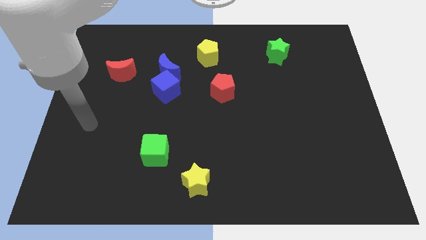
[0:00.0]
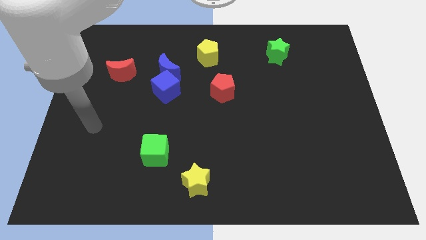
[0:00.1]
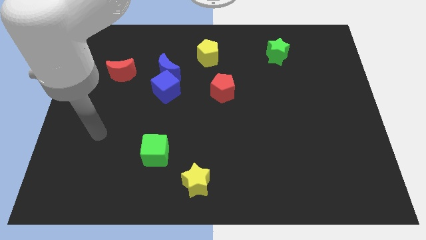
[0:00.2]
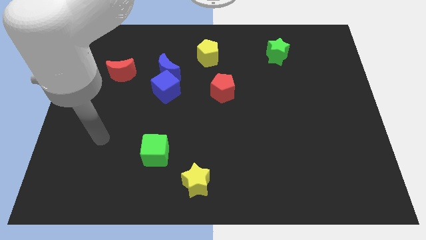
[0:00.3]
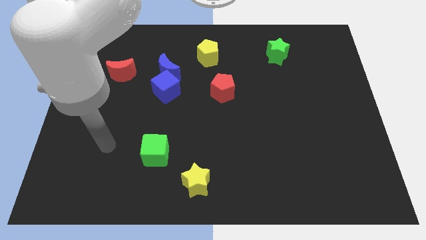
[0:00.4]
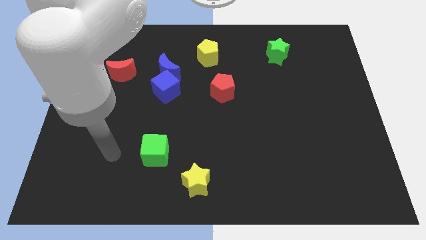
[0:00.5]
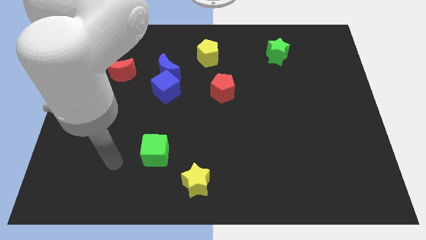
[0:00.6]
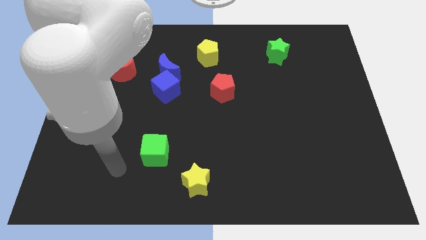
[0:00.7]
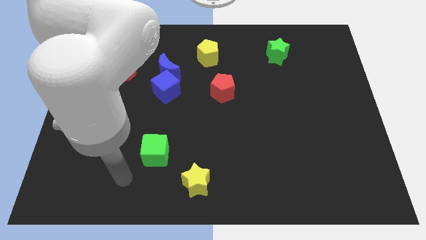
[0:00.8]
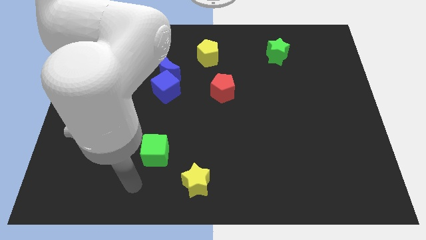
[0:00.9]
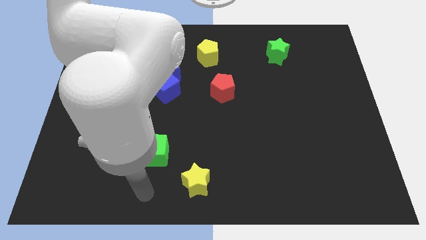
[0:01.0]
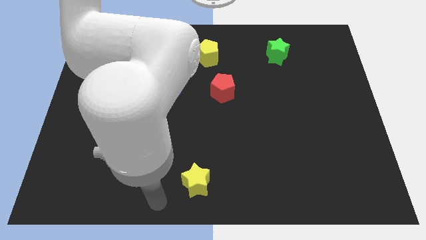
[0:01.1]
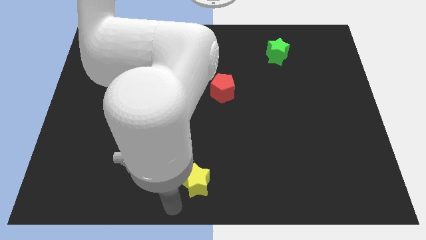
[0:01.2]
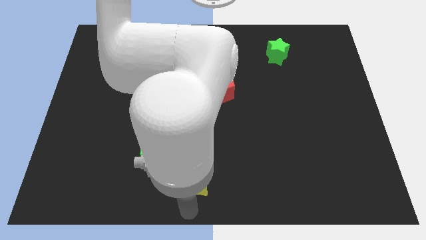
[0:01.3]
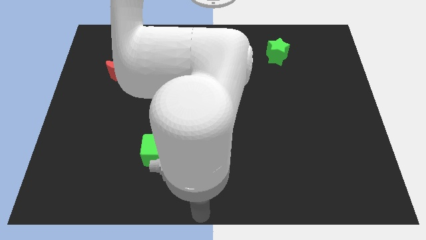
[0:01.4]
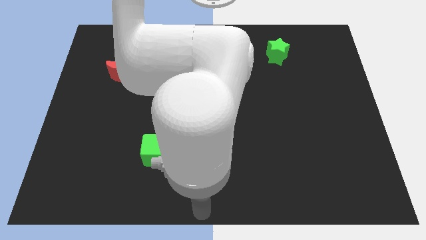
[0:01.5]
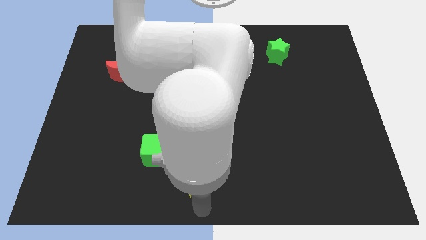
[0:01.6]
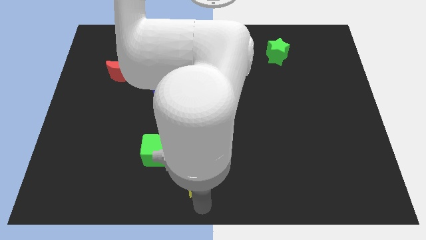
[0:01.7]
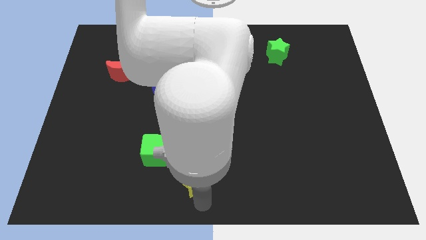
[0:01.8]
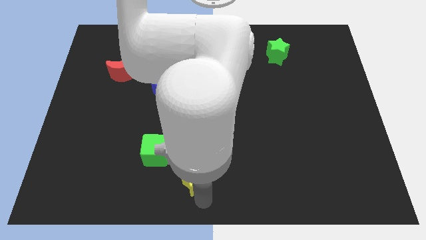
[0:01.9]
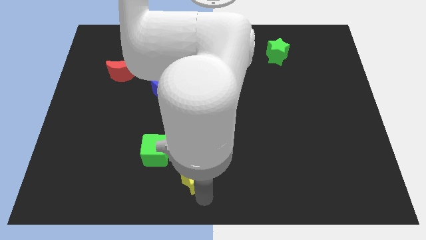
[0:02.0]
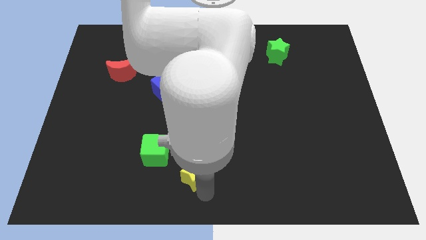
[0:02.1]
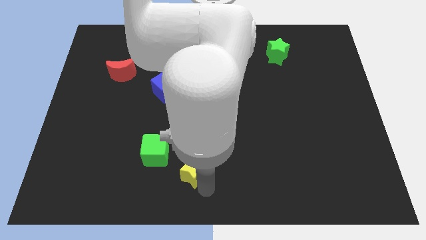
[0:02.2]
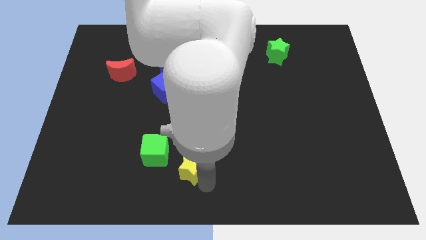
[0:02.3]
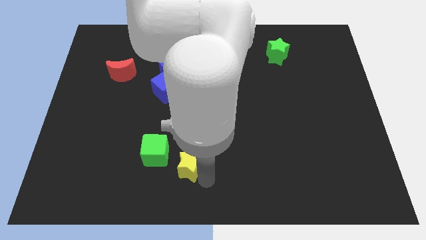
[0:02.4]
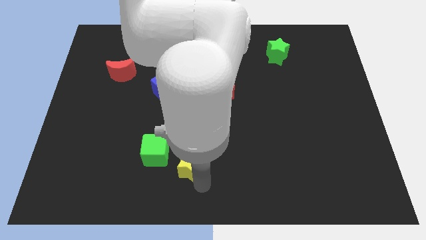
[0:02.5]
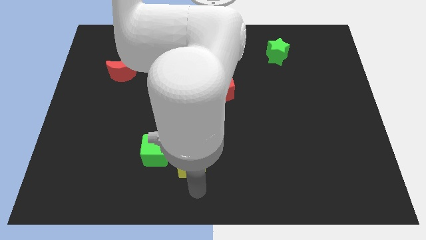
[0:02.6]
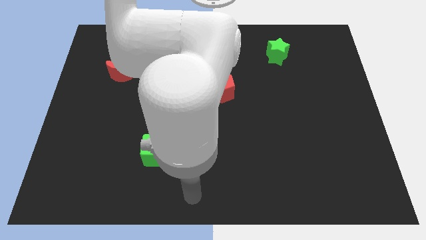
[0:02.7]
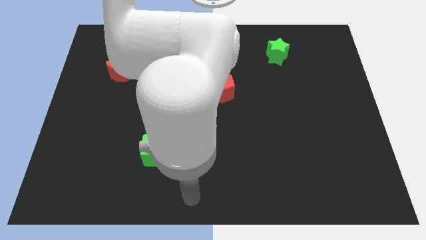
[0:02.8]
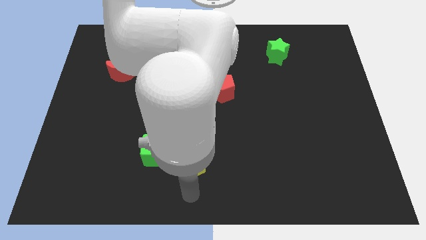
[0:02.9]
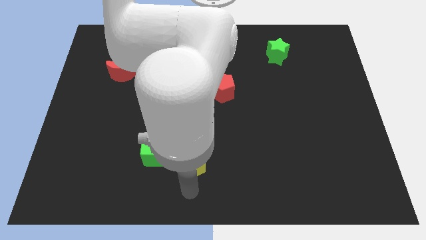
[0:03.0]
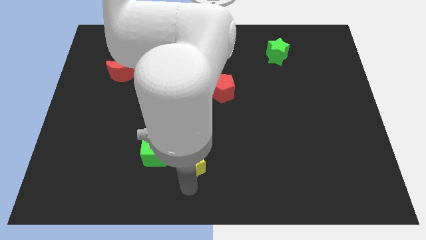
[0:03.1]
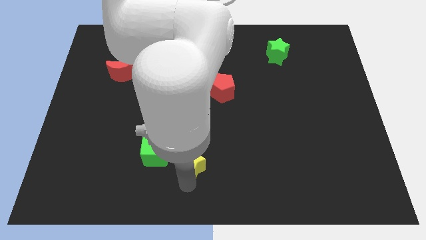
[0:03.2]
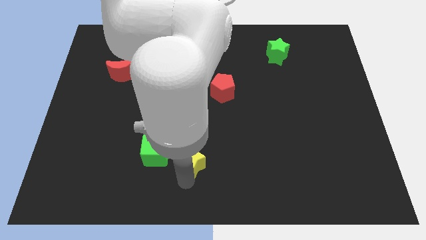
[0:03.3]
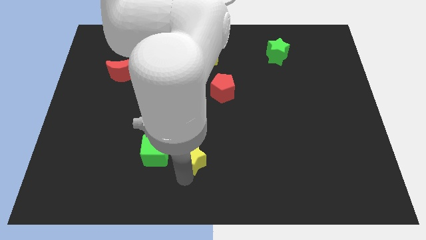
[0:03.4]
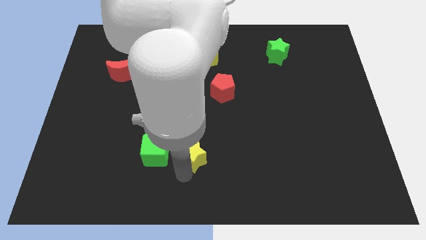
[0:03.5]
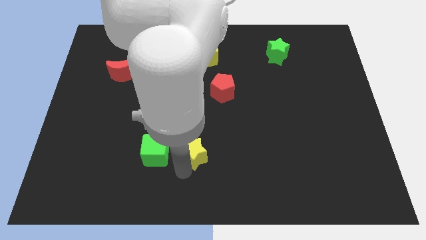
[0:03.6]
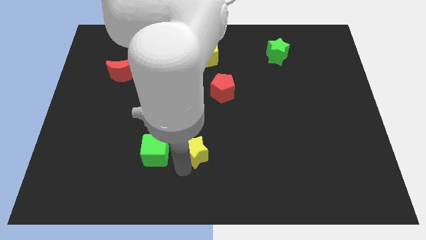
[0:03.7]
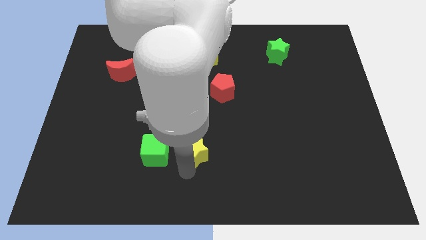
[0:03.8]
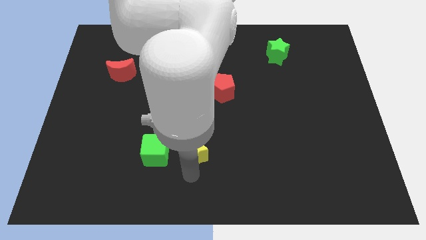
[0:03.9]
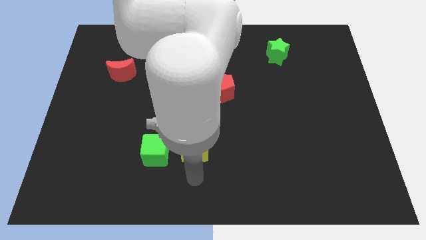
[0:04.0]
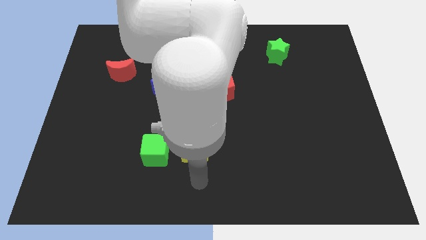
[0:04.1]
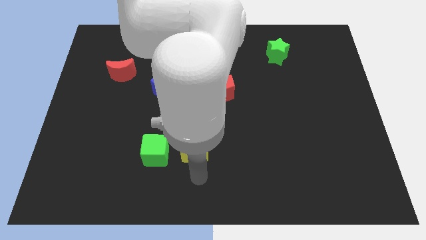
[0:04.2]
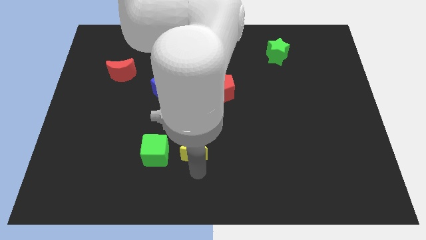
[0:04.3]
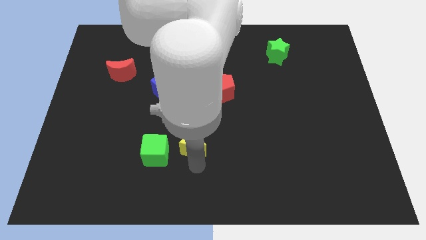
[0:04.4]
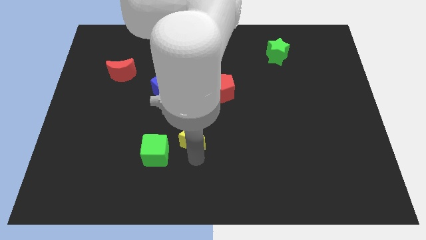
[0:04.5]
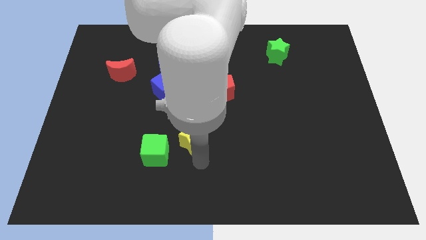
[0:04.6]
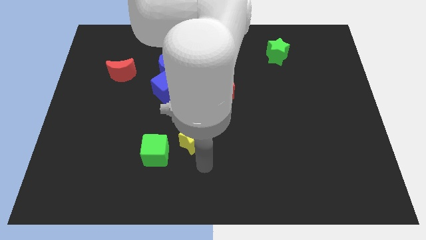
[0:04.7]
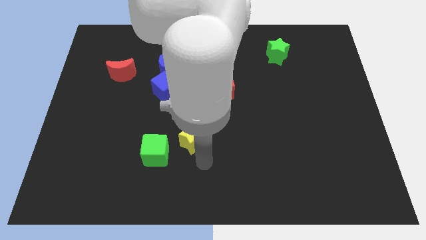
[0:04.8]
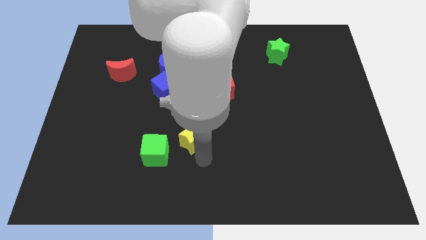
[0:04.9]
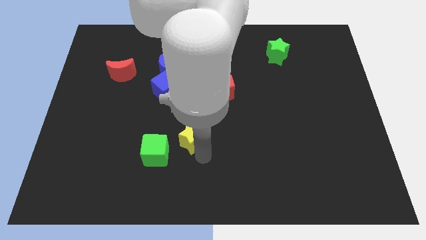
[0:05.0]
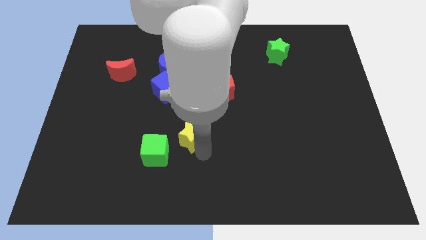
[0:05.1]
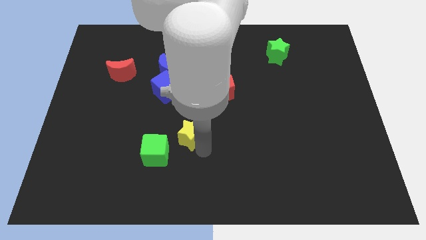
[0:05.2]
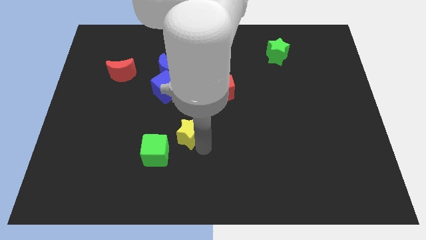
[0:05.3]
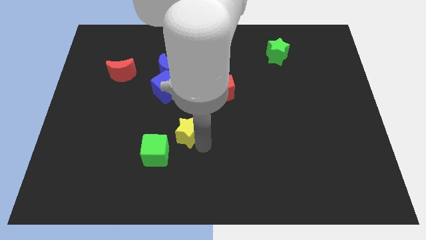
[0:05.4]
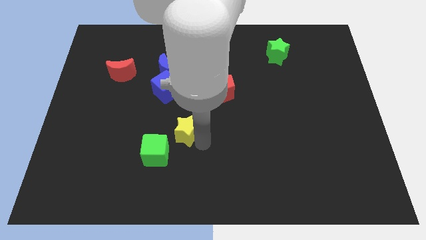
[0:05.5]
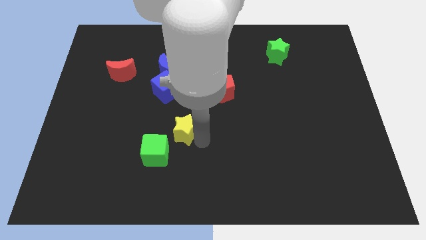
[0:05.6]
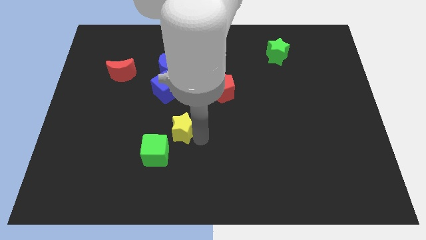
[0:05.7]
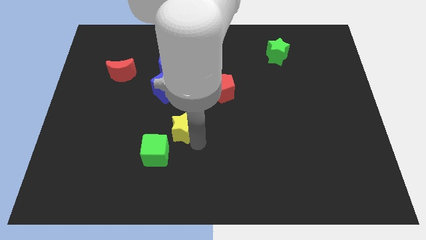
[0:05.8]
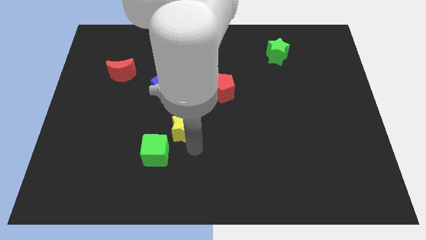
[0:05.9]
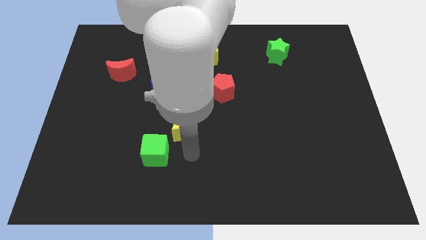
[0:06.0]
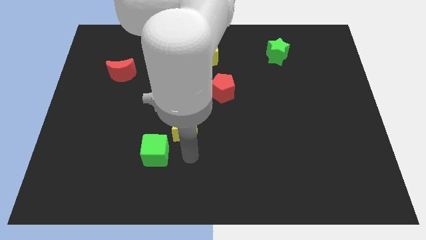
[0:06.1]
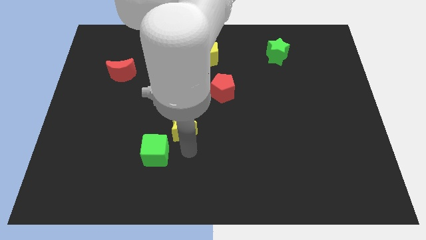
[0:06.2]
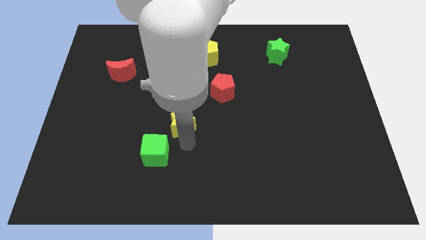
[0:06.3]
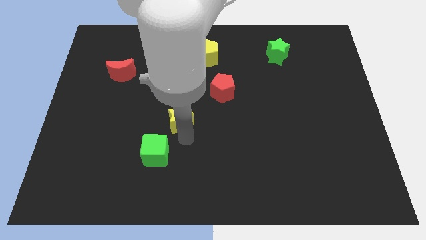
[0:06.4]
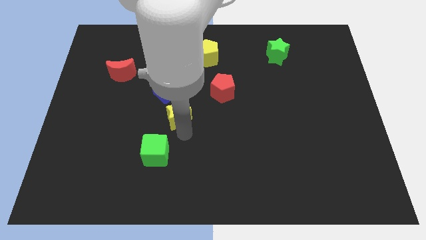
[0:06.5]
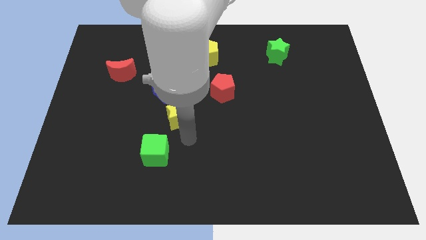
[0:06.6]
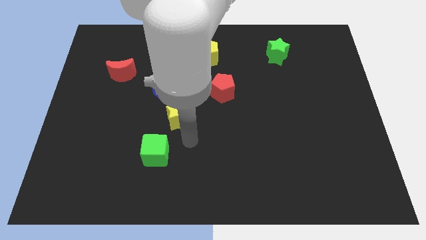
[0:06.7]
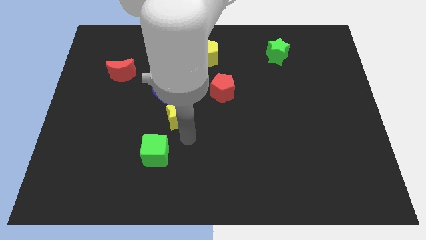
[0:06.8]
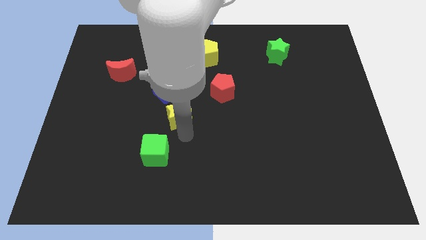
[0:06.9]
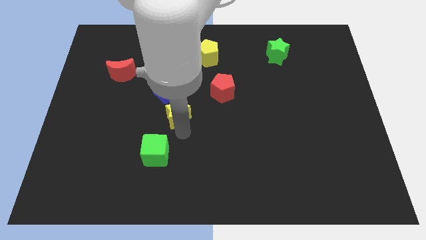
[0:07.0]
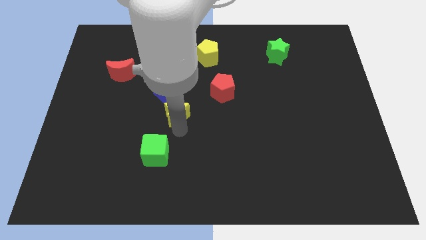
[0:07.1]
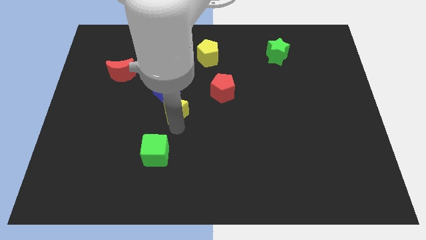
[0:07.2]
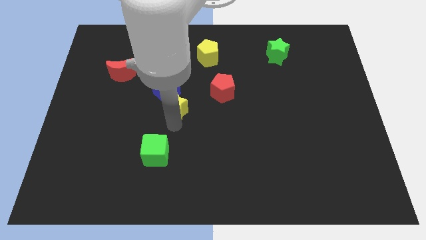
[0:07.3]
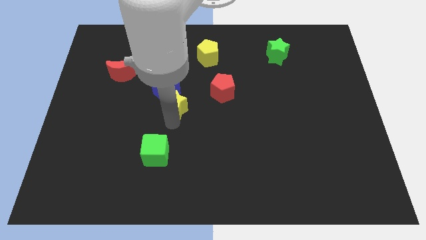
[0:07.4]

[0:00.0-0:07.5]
push the yellow star towards the blue cube
